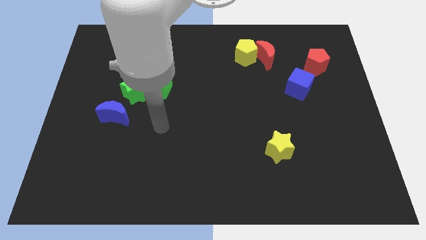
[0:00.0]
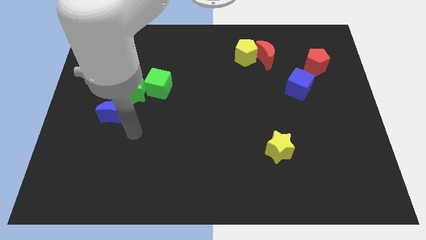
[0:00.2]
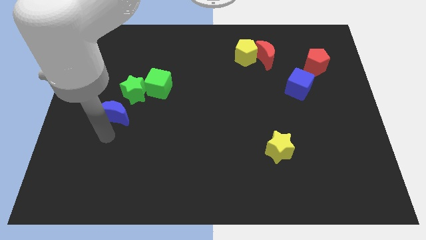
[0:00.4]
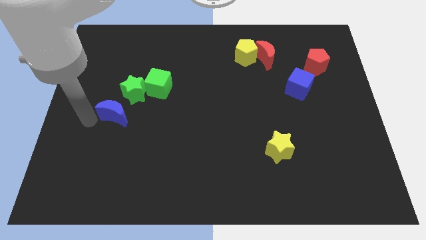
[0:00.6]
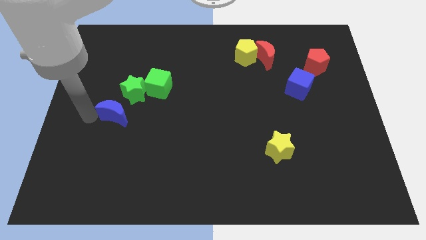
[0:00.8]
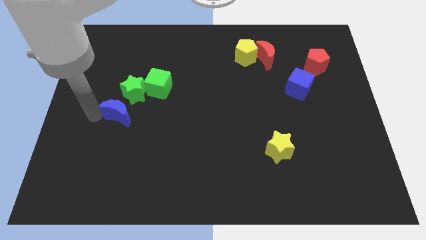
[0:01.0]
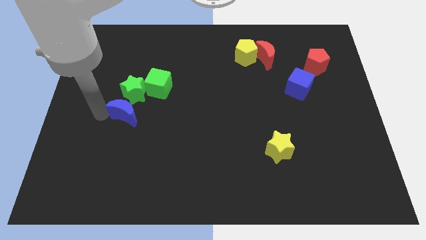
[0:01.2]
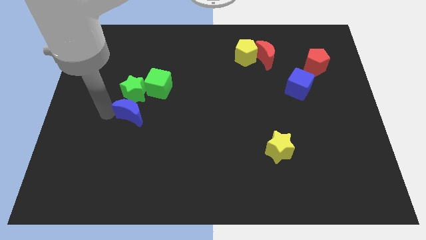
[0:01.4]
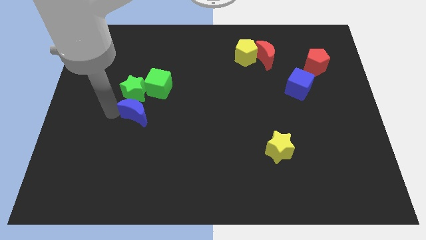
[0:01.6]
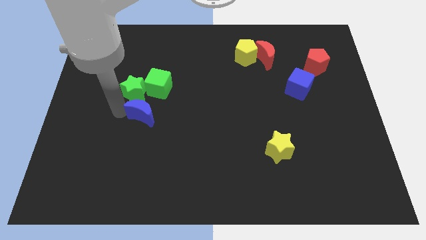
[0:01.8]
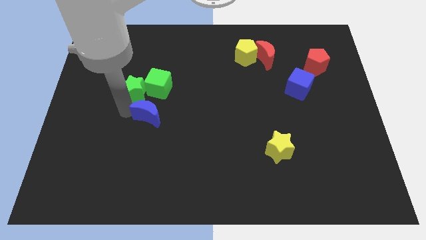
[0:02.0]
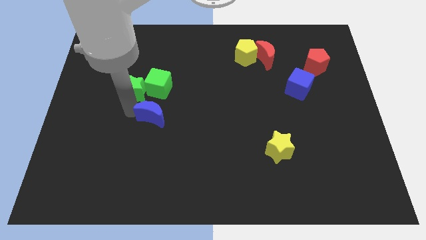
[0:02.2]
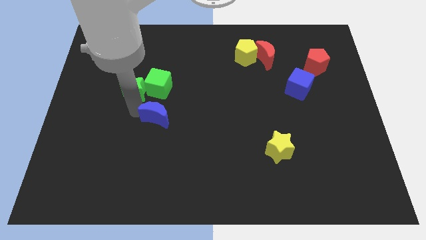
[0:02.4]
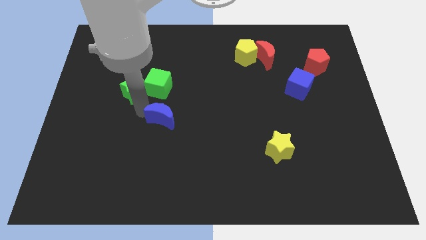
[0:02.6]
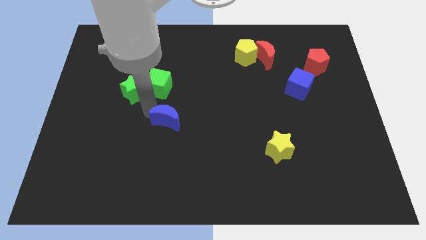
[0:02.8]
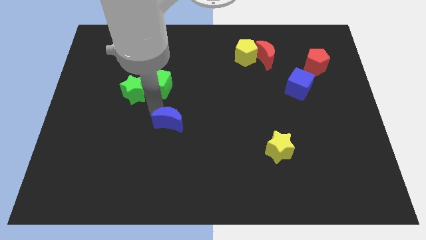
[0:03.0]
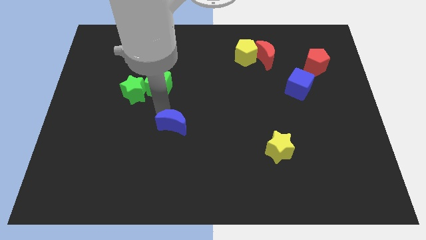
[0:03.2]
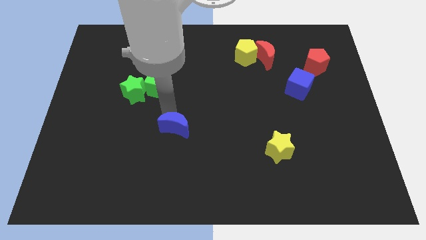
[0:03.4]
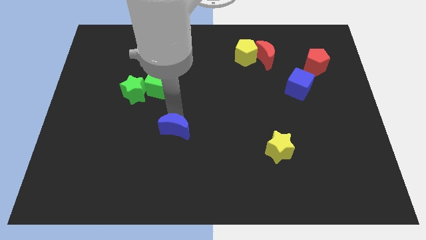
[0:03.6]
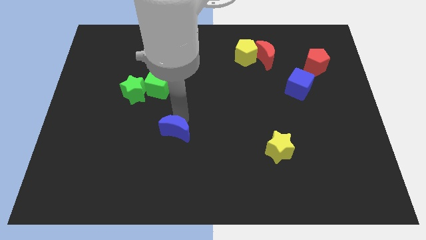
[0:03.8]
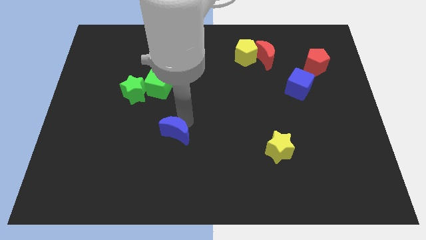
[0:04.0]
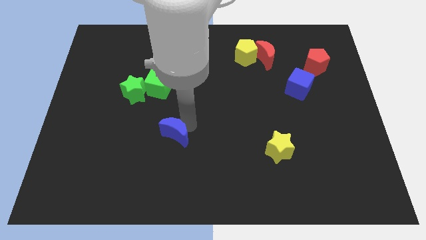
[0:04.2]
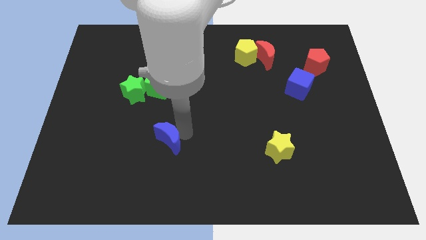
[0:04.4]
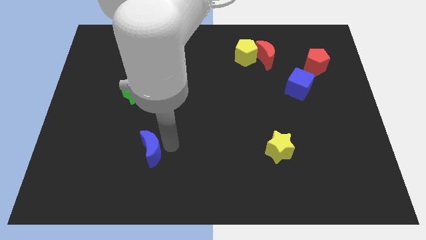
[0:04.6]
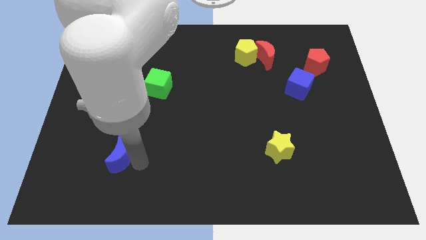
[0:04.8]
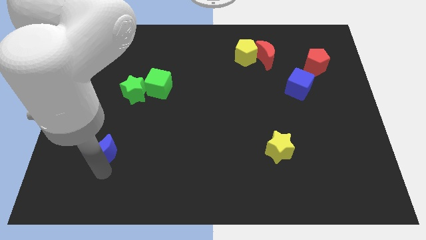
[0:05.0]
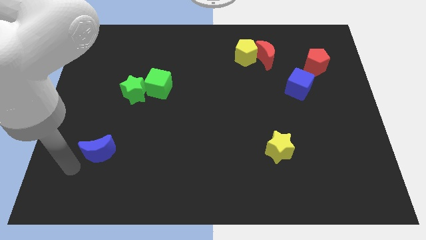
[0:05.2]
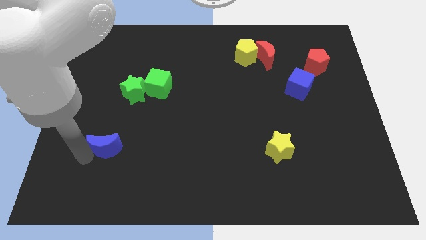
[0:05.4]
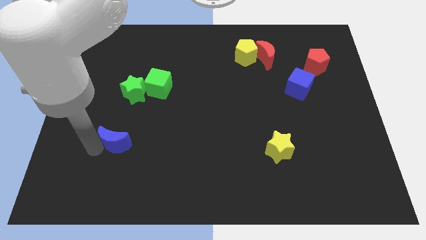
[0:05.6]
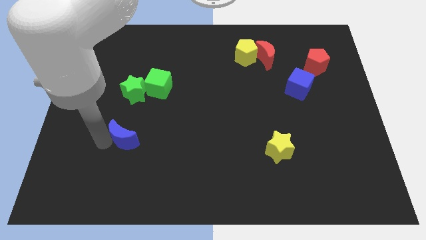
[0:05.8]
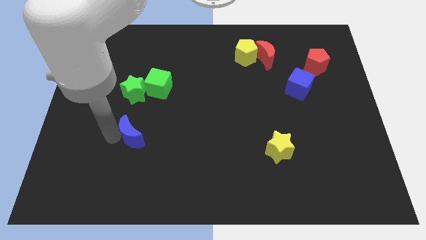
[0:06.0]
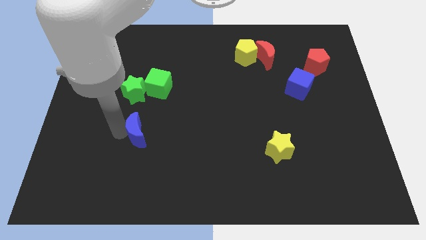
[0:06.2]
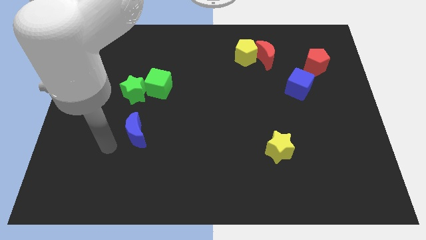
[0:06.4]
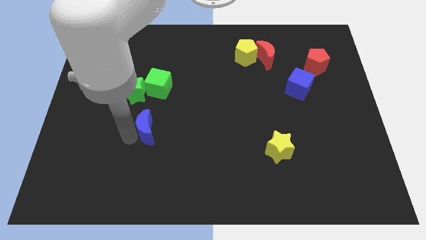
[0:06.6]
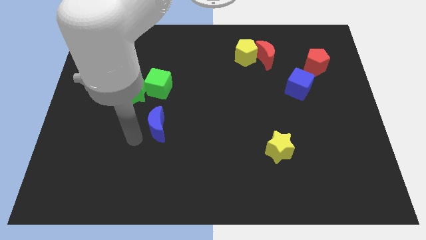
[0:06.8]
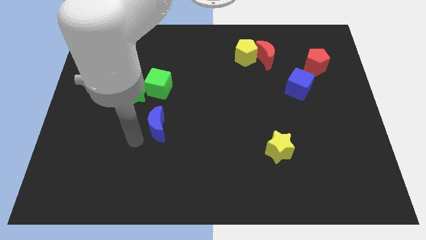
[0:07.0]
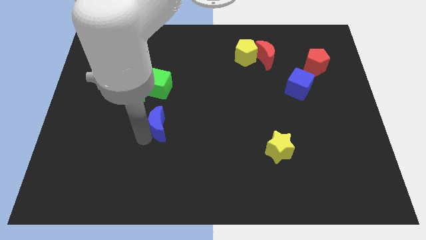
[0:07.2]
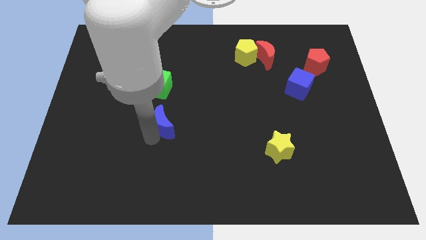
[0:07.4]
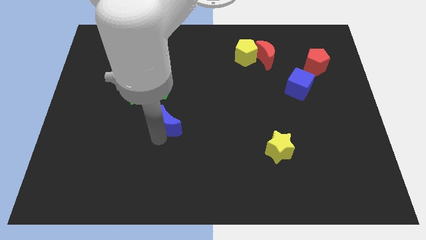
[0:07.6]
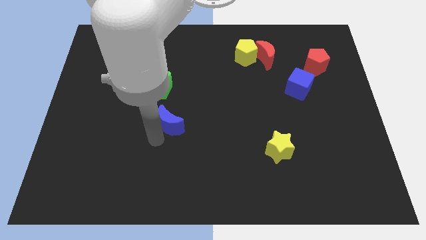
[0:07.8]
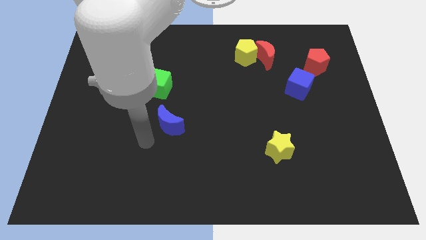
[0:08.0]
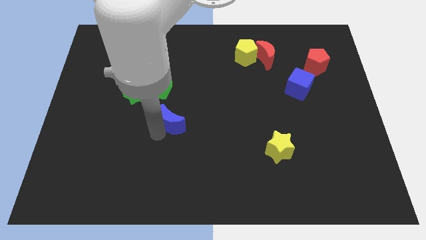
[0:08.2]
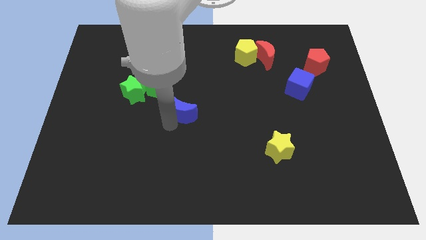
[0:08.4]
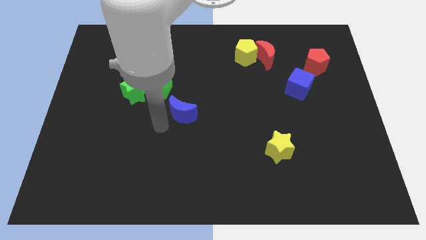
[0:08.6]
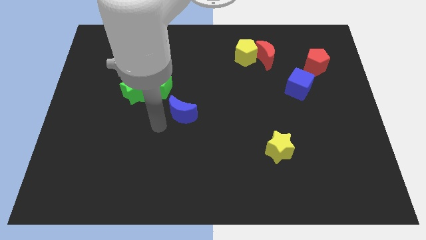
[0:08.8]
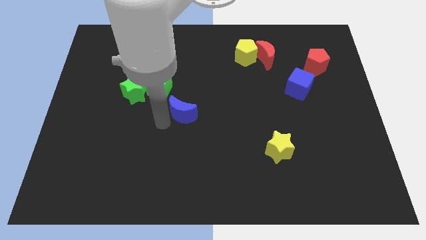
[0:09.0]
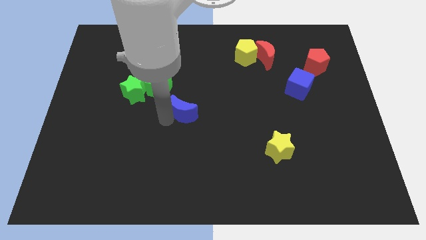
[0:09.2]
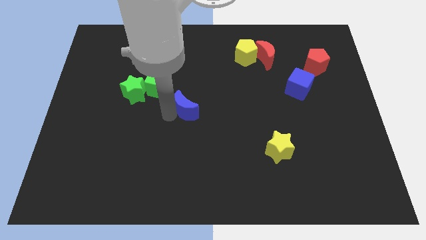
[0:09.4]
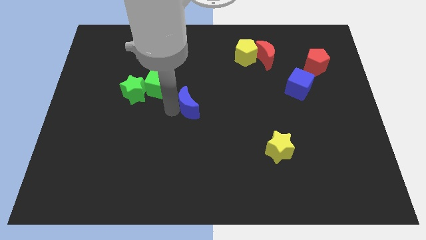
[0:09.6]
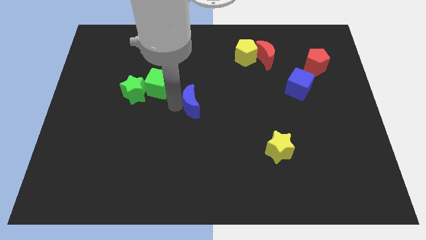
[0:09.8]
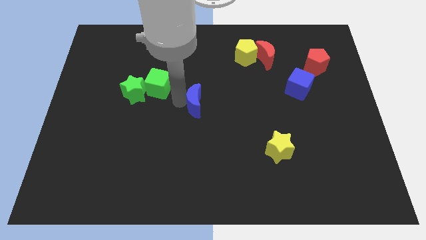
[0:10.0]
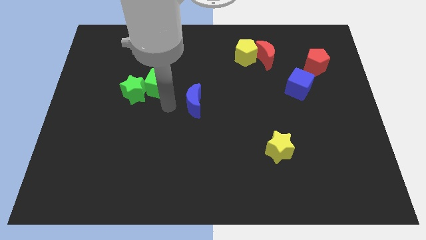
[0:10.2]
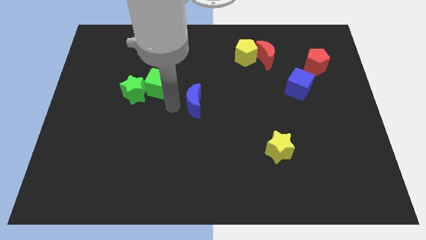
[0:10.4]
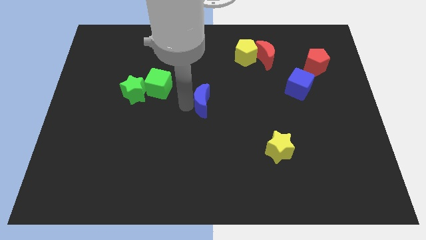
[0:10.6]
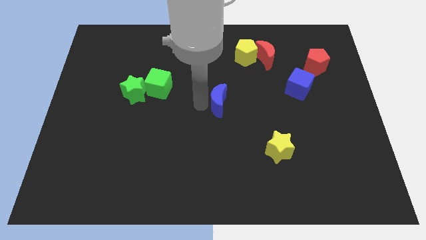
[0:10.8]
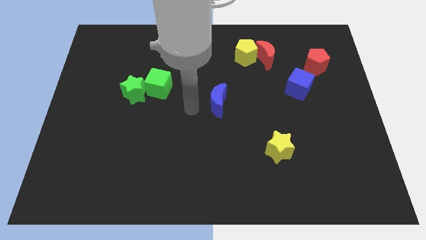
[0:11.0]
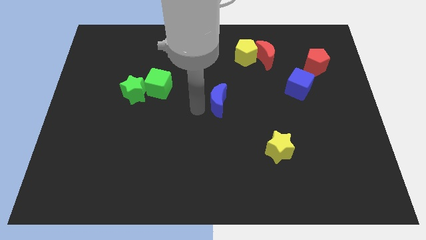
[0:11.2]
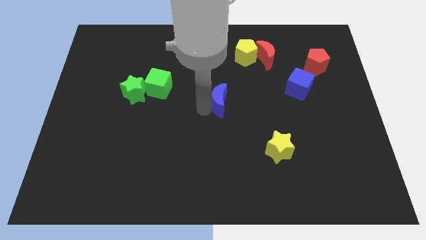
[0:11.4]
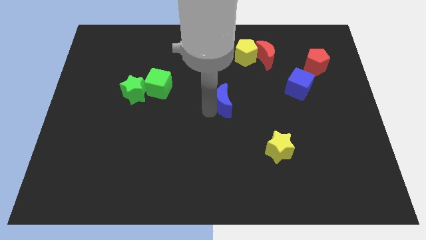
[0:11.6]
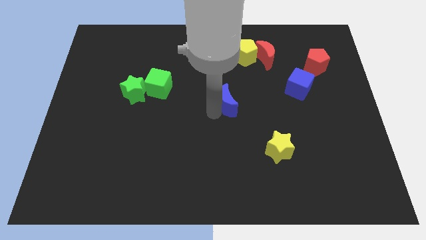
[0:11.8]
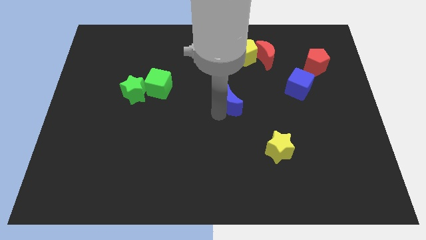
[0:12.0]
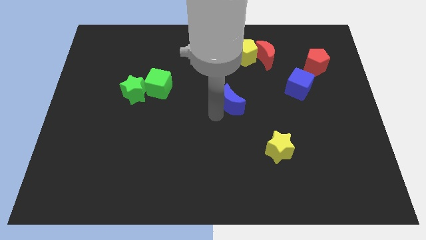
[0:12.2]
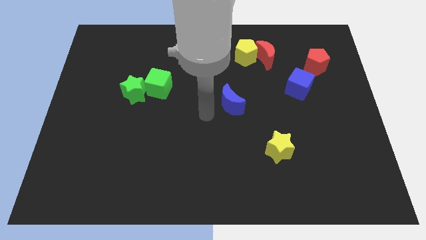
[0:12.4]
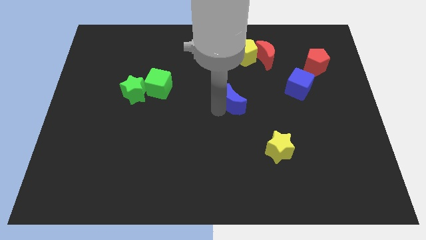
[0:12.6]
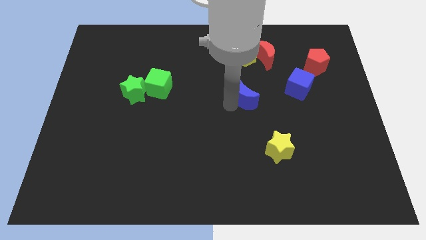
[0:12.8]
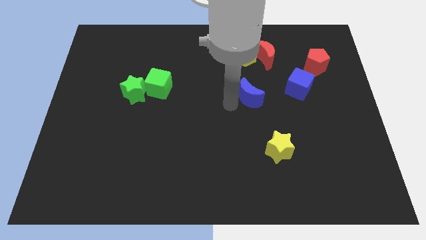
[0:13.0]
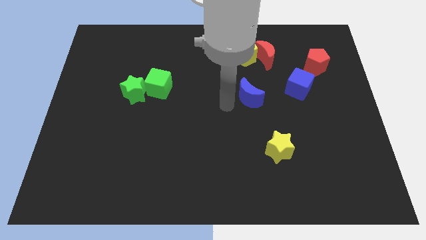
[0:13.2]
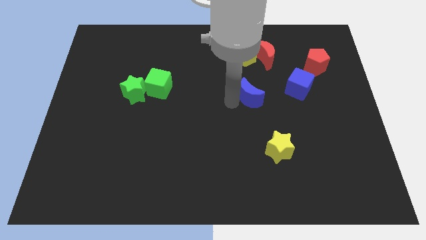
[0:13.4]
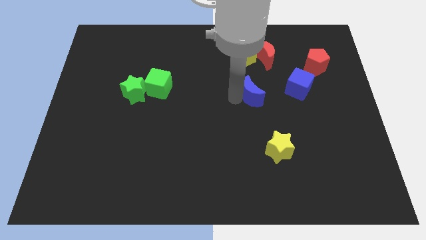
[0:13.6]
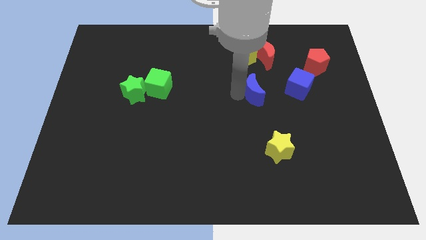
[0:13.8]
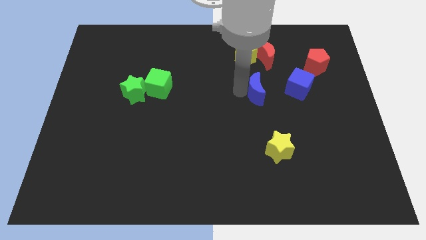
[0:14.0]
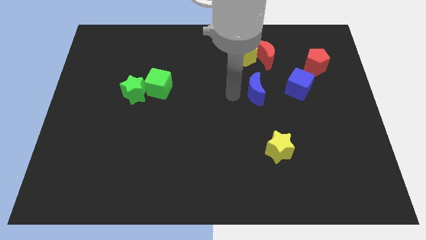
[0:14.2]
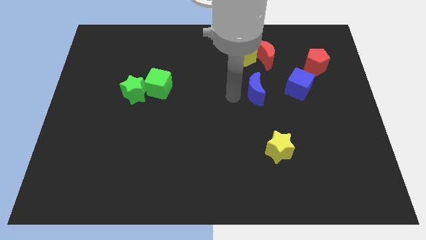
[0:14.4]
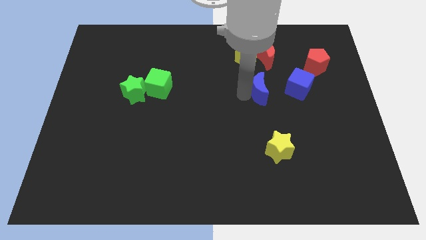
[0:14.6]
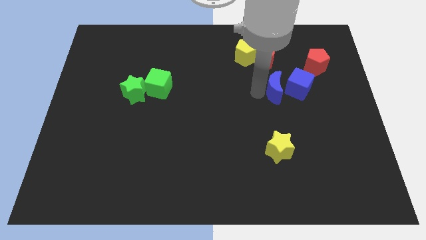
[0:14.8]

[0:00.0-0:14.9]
slide the blue moon next to the blue cube

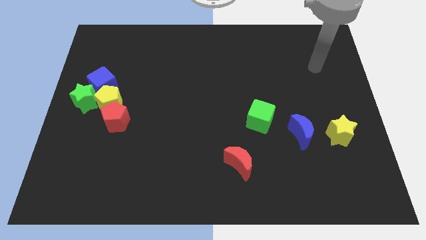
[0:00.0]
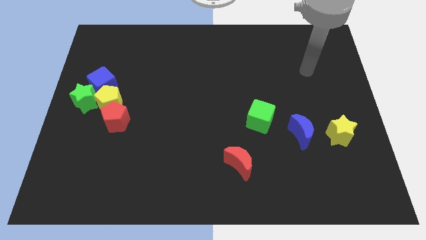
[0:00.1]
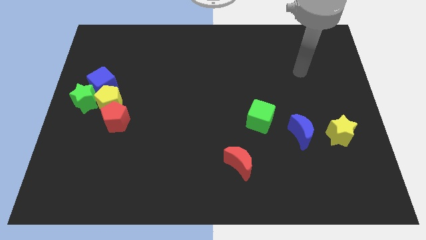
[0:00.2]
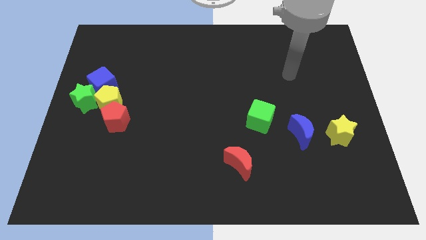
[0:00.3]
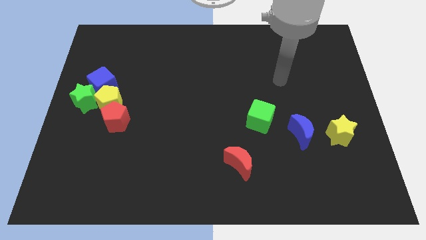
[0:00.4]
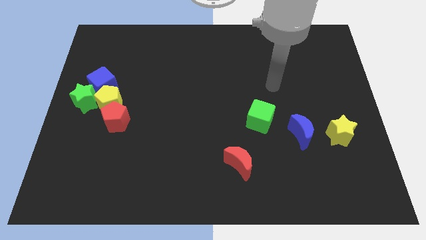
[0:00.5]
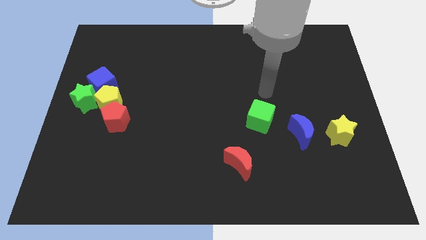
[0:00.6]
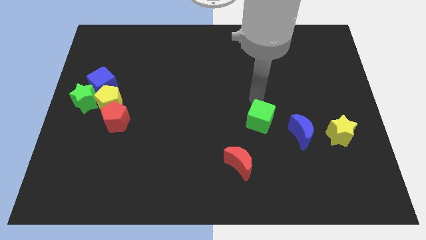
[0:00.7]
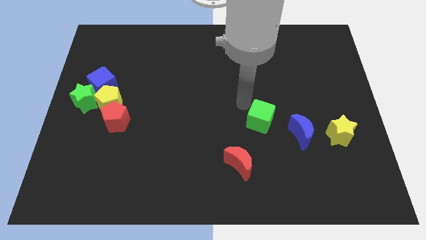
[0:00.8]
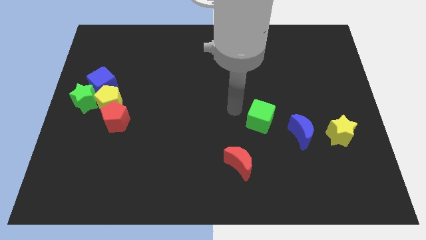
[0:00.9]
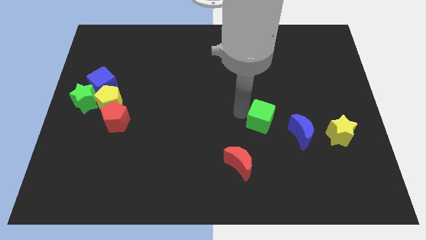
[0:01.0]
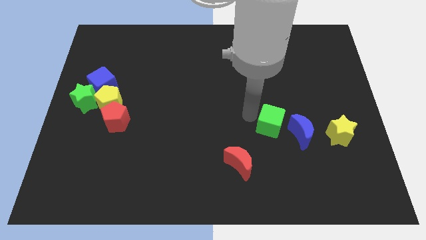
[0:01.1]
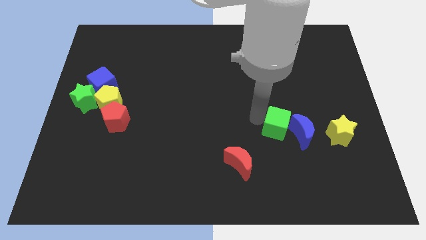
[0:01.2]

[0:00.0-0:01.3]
push the green cube close to the blue moon

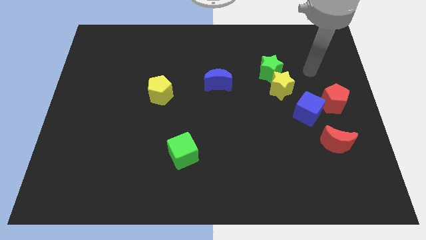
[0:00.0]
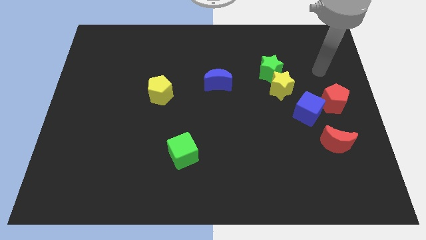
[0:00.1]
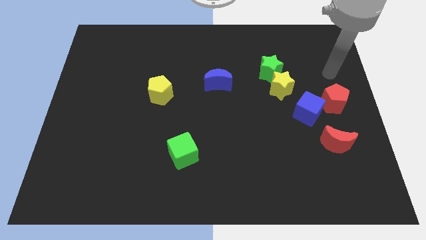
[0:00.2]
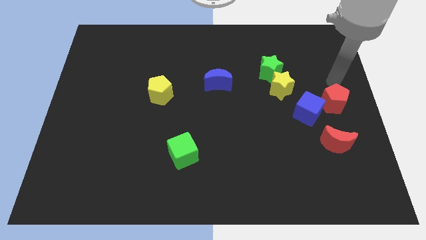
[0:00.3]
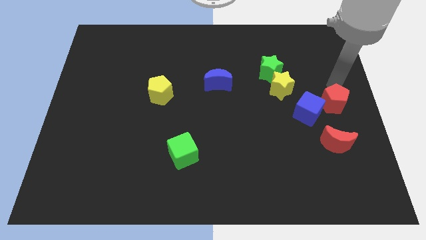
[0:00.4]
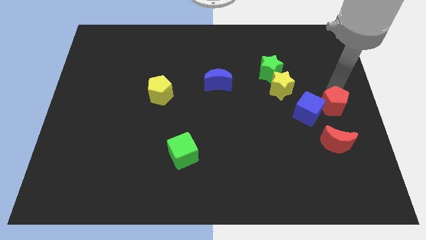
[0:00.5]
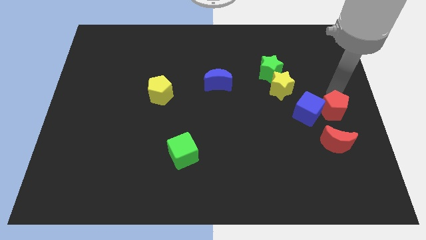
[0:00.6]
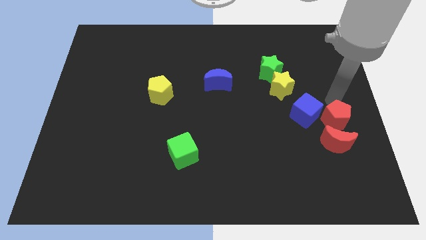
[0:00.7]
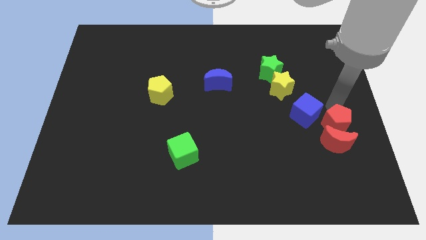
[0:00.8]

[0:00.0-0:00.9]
push the red pentagon to the red moon
